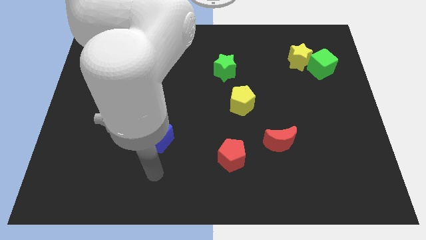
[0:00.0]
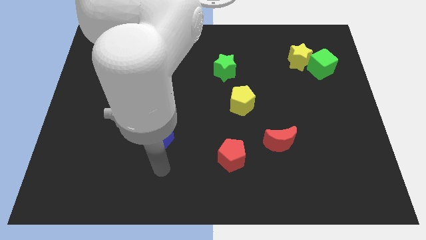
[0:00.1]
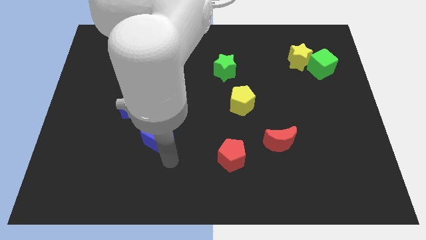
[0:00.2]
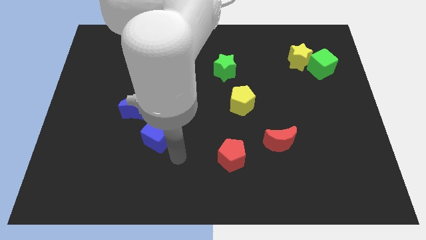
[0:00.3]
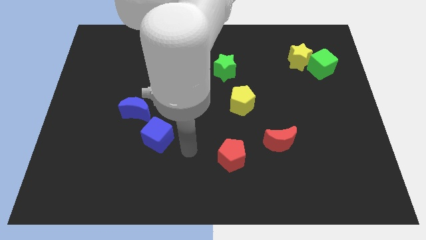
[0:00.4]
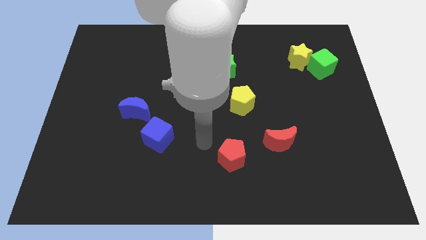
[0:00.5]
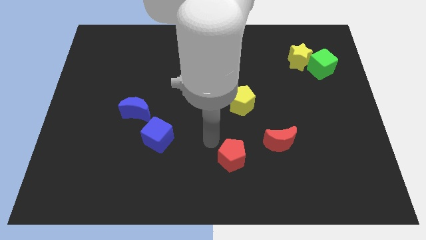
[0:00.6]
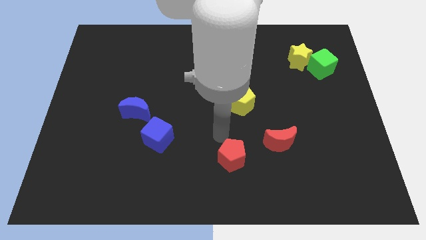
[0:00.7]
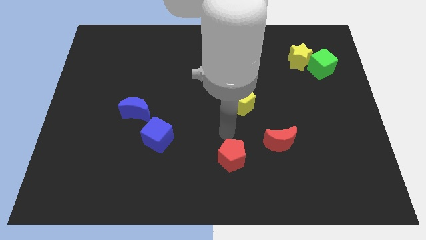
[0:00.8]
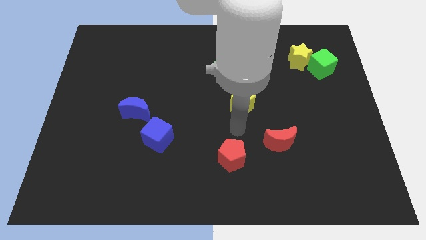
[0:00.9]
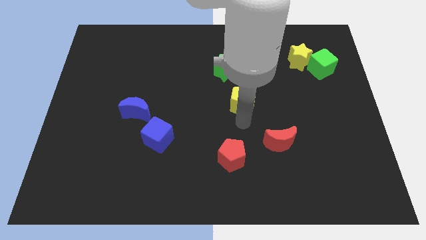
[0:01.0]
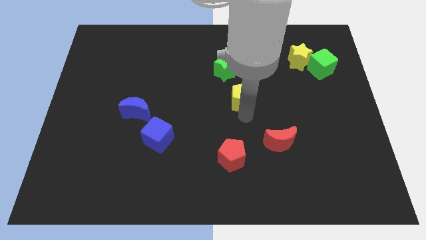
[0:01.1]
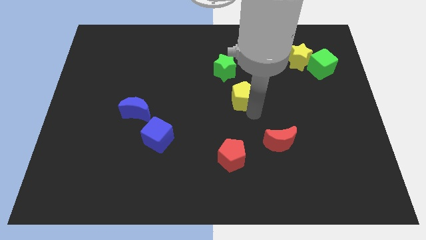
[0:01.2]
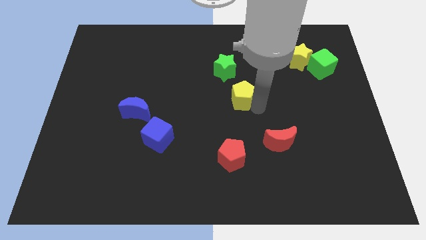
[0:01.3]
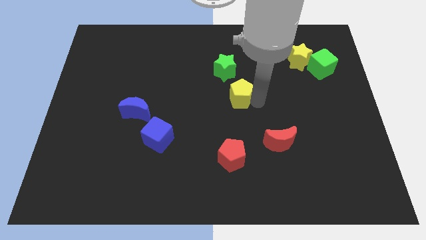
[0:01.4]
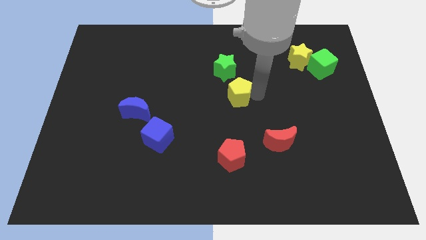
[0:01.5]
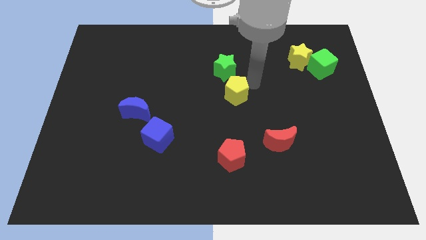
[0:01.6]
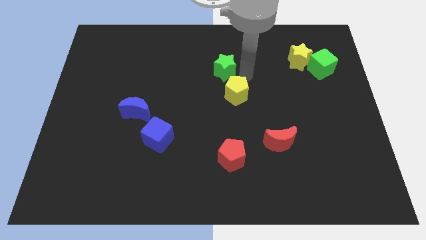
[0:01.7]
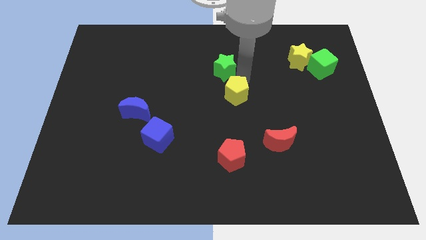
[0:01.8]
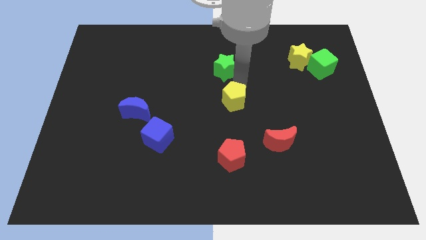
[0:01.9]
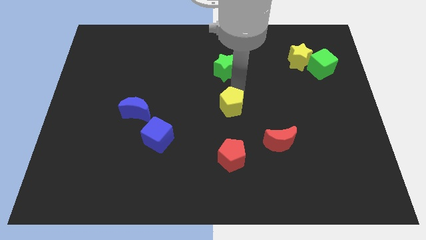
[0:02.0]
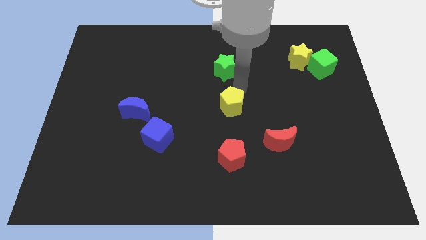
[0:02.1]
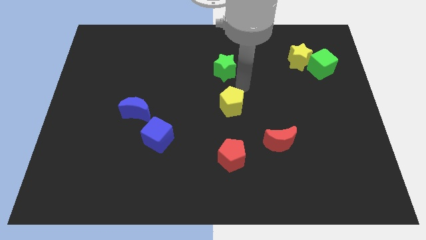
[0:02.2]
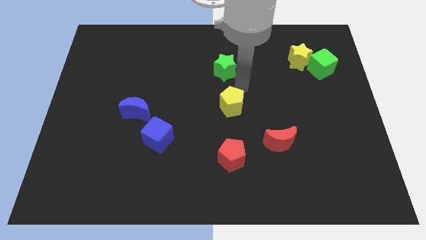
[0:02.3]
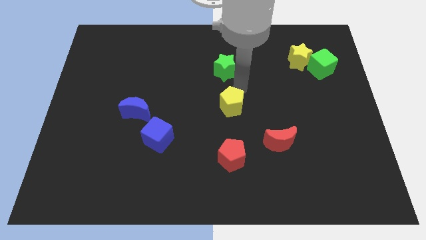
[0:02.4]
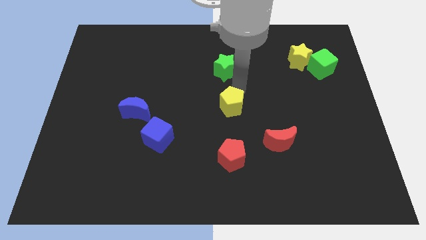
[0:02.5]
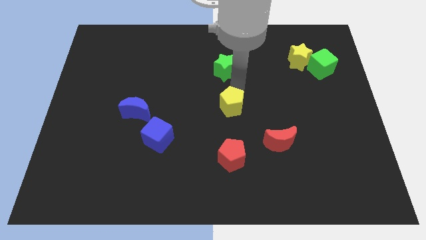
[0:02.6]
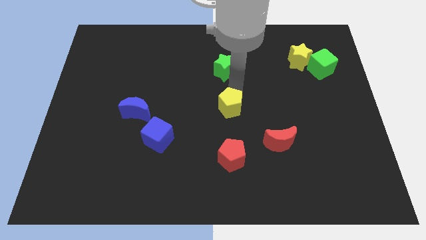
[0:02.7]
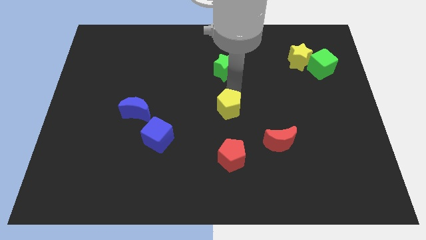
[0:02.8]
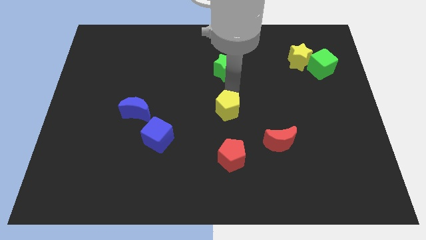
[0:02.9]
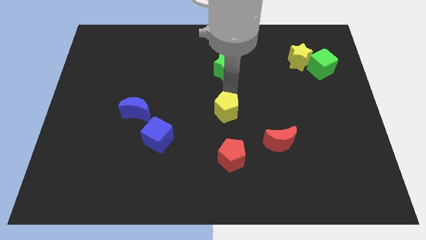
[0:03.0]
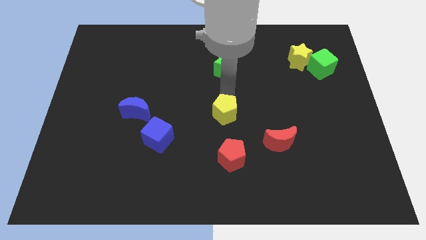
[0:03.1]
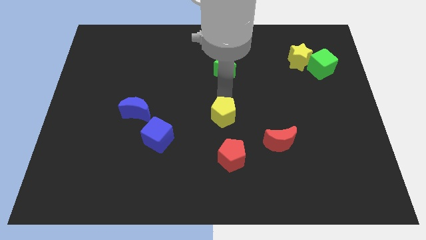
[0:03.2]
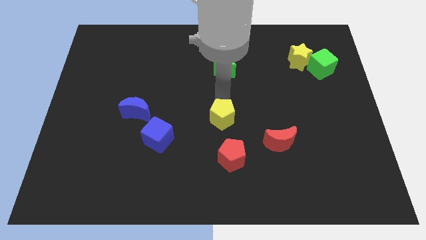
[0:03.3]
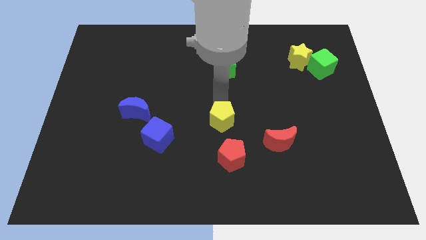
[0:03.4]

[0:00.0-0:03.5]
slightly push the yellow pentagon down and to the left diagonally

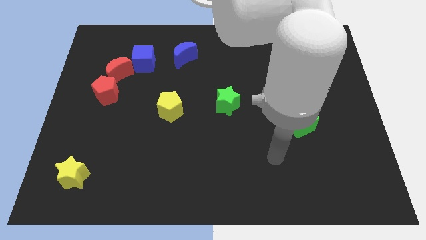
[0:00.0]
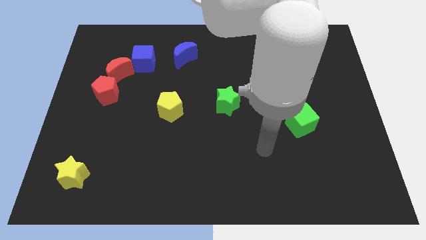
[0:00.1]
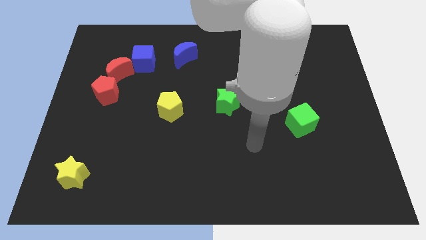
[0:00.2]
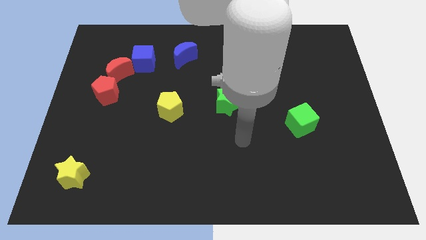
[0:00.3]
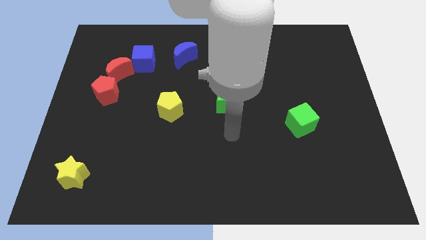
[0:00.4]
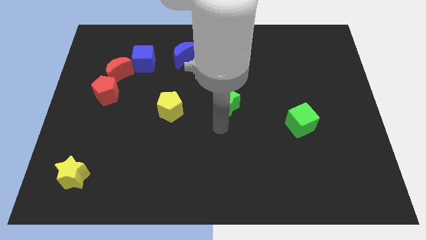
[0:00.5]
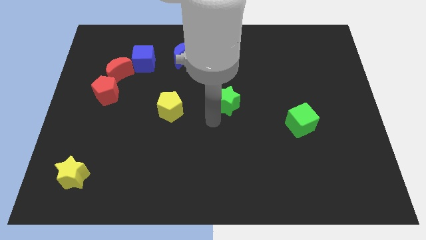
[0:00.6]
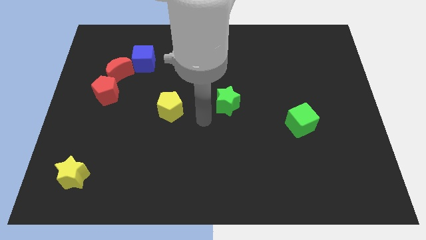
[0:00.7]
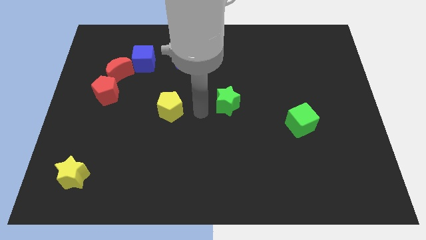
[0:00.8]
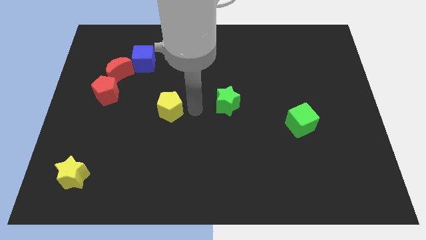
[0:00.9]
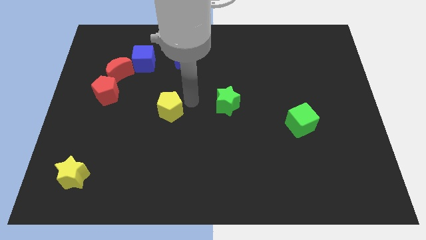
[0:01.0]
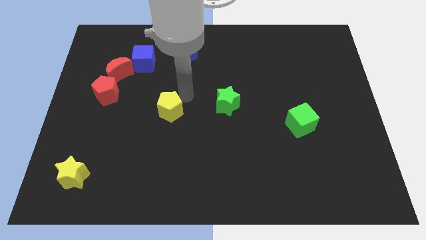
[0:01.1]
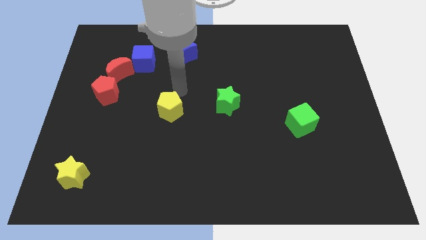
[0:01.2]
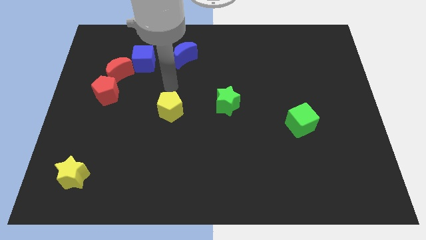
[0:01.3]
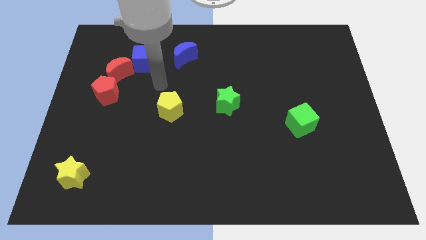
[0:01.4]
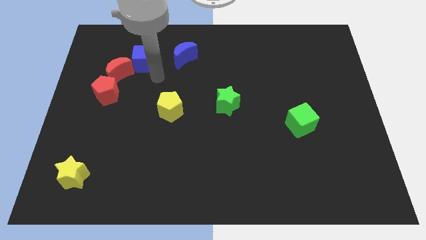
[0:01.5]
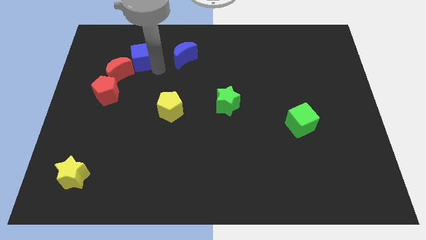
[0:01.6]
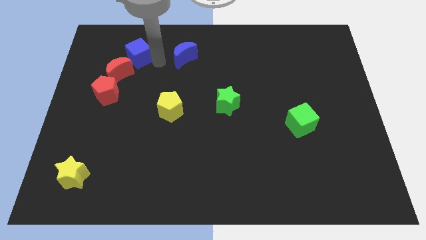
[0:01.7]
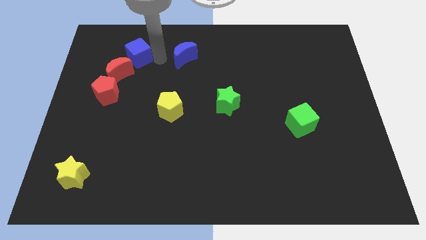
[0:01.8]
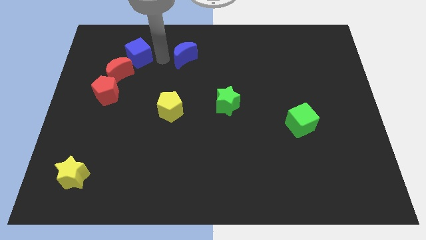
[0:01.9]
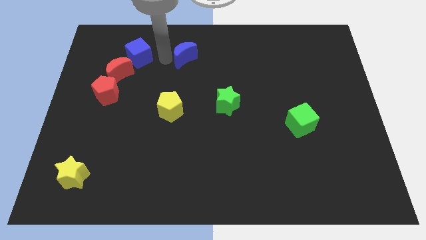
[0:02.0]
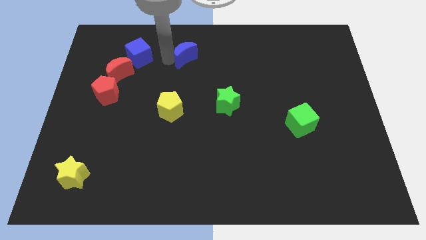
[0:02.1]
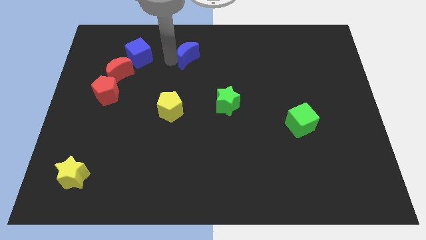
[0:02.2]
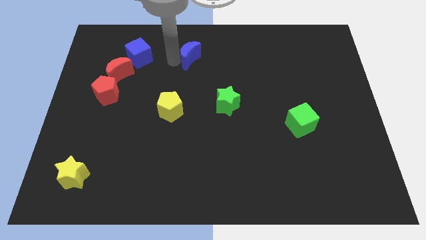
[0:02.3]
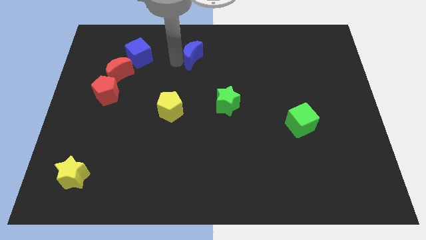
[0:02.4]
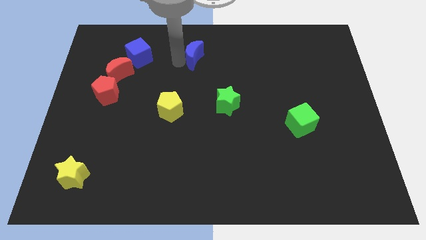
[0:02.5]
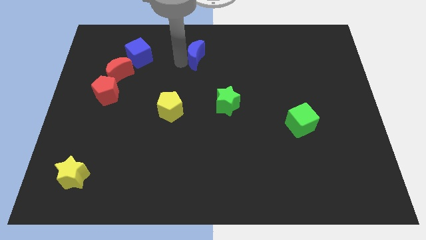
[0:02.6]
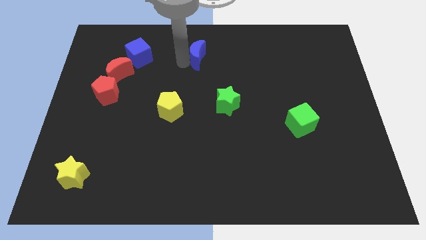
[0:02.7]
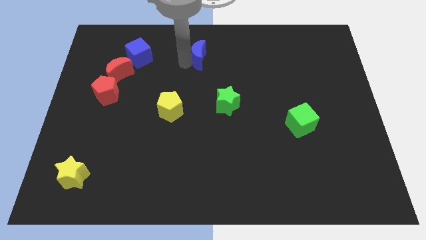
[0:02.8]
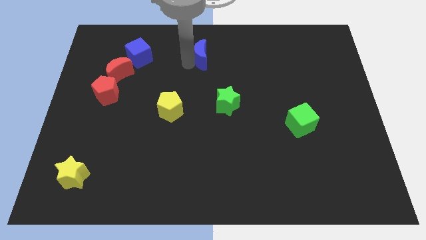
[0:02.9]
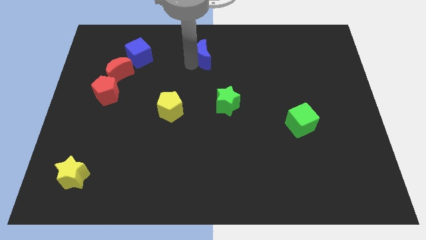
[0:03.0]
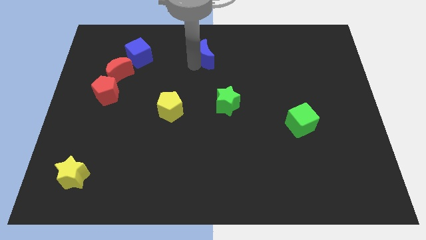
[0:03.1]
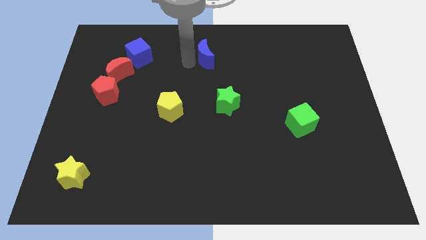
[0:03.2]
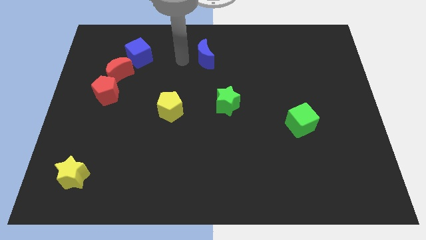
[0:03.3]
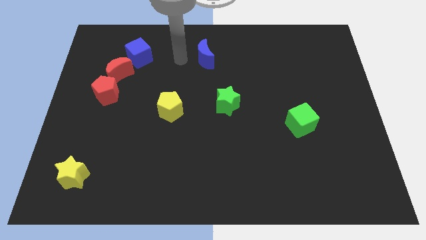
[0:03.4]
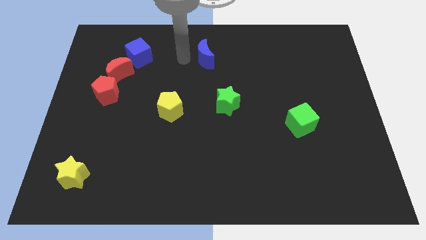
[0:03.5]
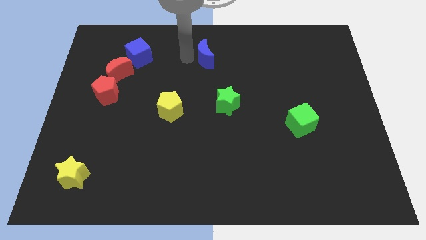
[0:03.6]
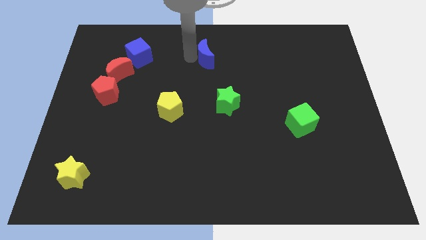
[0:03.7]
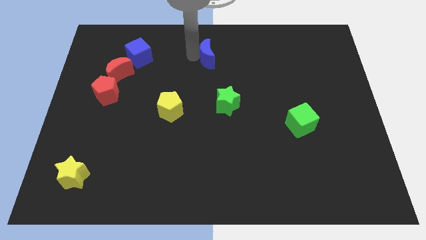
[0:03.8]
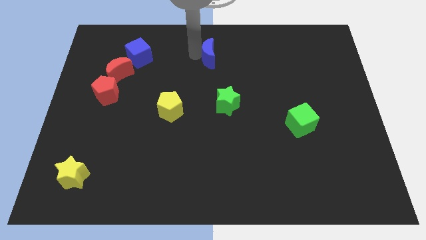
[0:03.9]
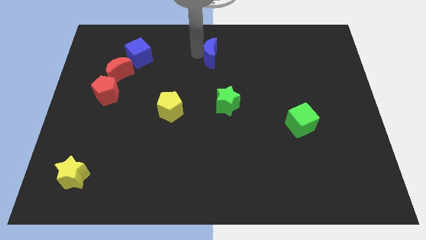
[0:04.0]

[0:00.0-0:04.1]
slightly slide the blue moon to the right

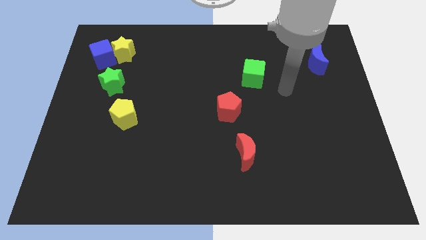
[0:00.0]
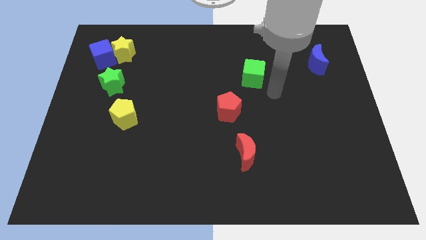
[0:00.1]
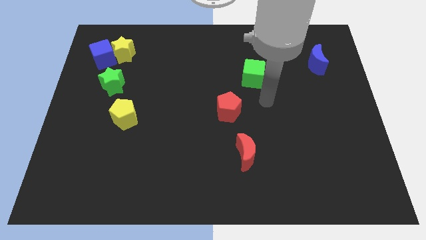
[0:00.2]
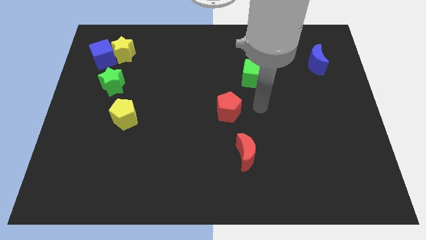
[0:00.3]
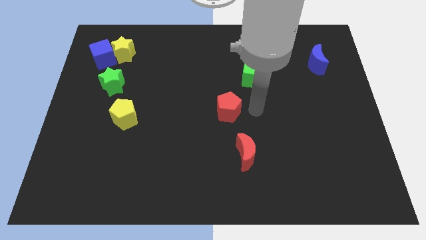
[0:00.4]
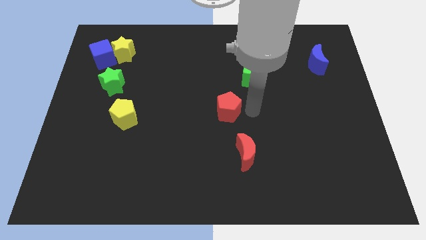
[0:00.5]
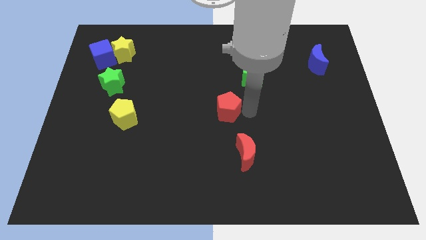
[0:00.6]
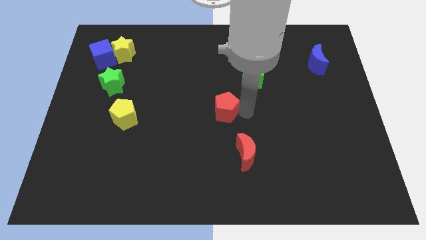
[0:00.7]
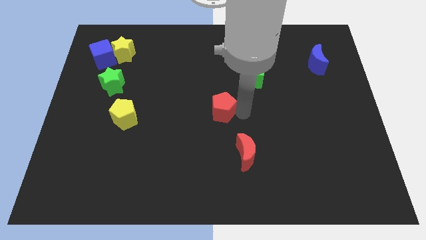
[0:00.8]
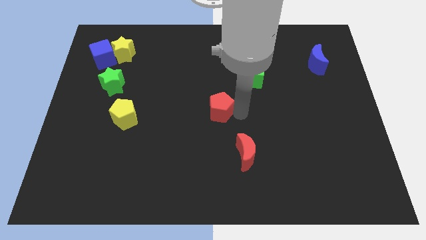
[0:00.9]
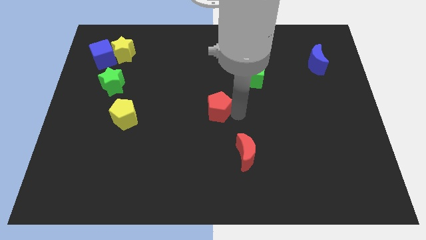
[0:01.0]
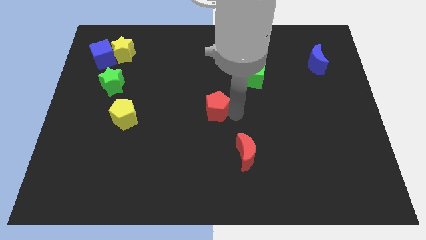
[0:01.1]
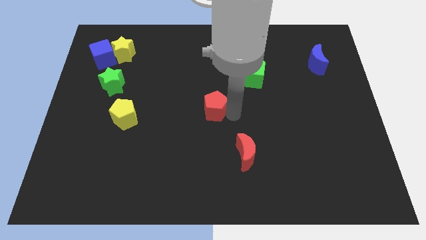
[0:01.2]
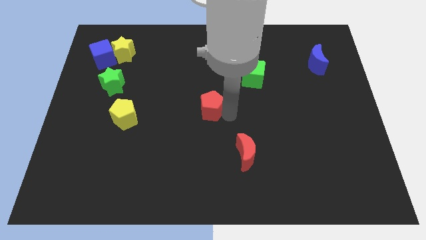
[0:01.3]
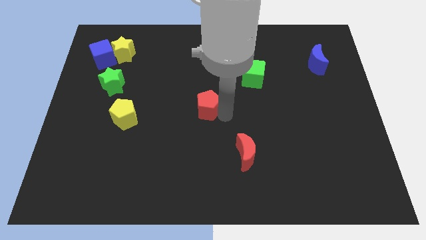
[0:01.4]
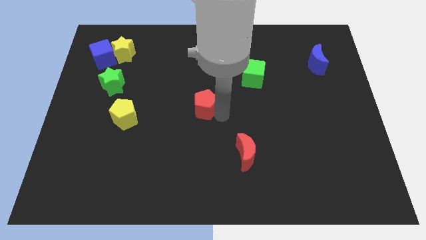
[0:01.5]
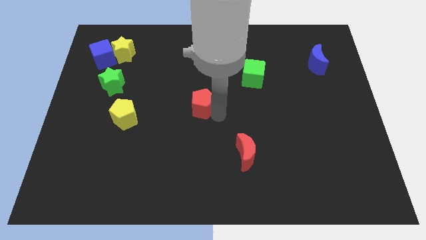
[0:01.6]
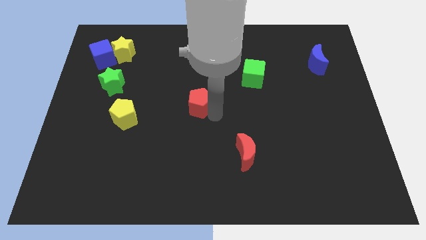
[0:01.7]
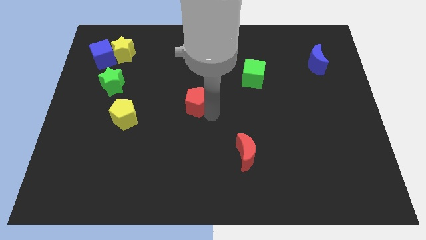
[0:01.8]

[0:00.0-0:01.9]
push the red pentagon left a bit
